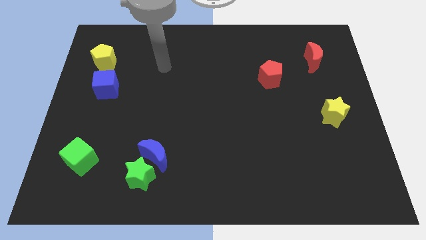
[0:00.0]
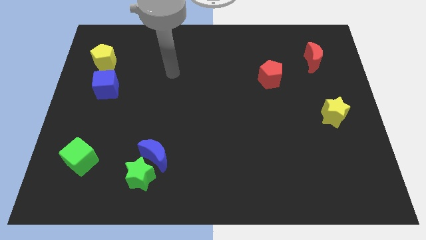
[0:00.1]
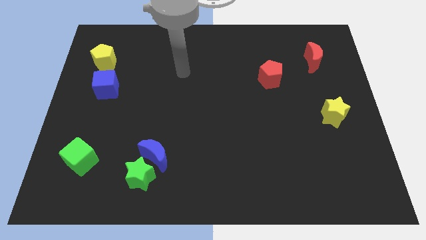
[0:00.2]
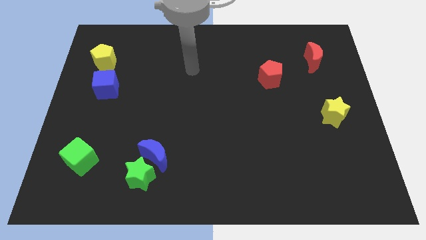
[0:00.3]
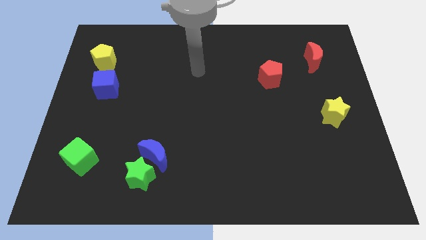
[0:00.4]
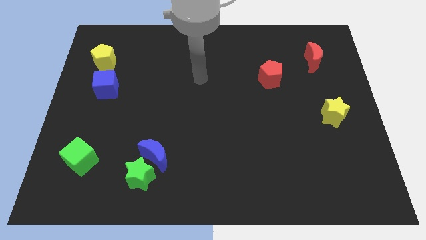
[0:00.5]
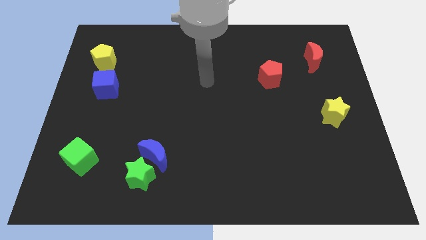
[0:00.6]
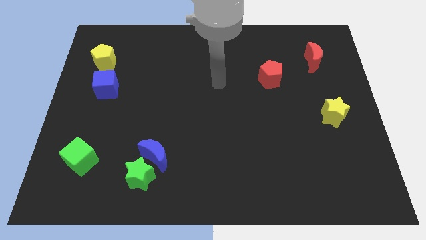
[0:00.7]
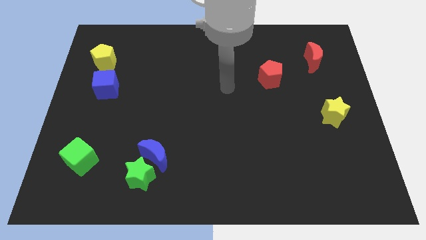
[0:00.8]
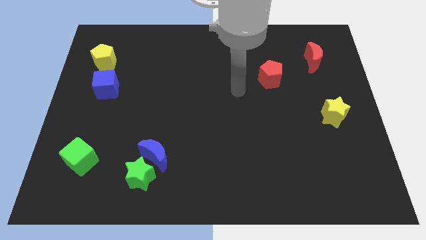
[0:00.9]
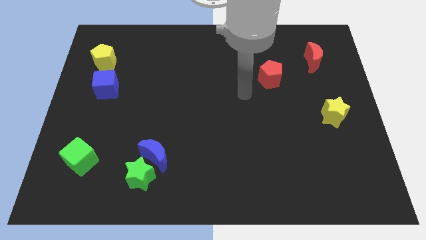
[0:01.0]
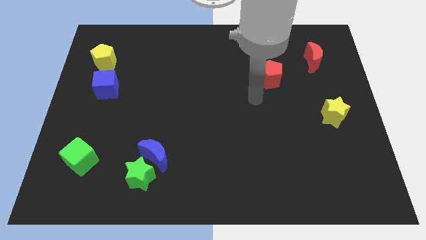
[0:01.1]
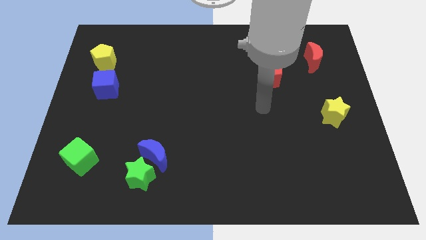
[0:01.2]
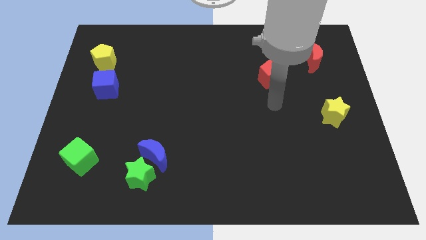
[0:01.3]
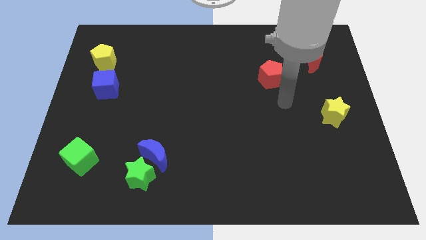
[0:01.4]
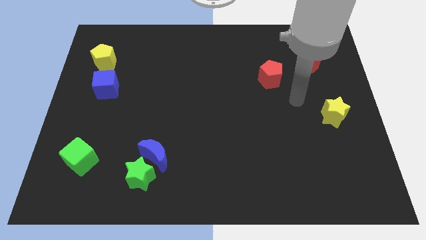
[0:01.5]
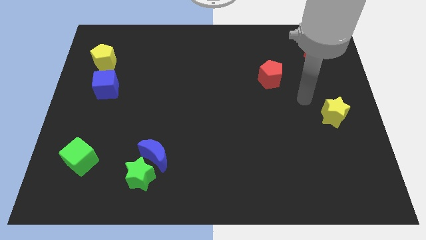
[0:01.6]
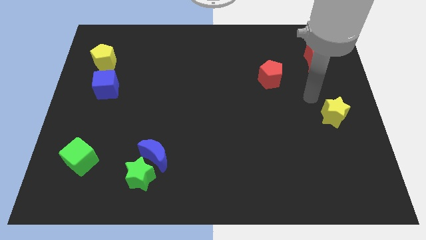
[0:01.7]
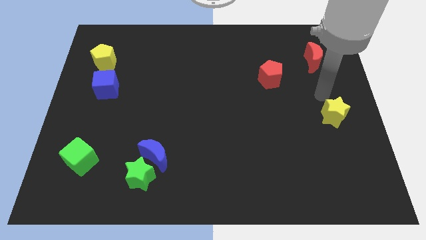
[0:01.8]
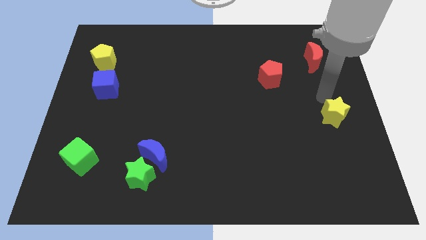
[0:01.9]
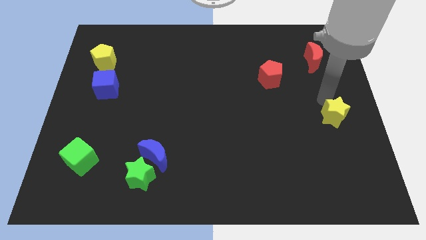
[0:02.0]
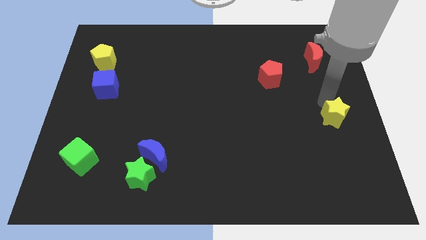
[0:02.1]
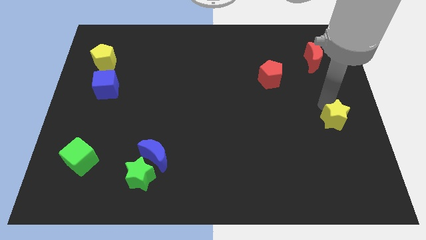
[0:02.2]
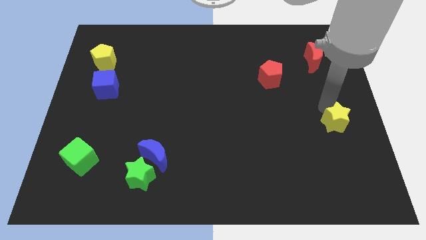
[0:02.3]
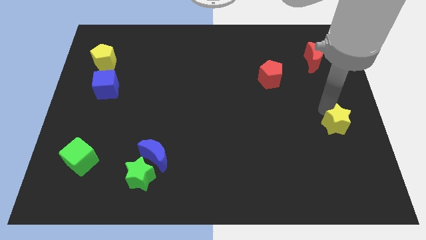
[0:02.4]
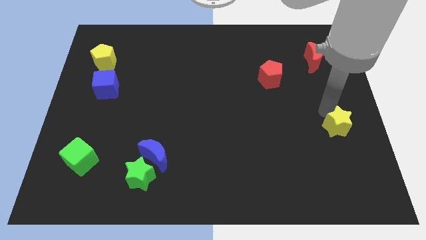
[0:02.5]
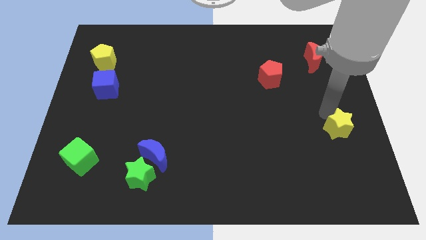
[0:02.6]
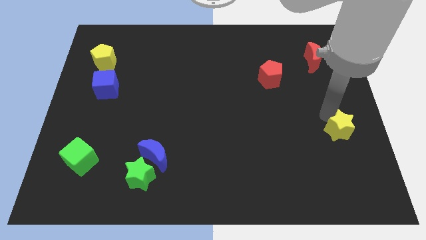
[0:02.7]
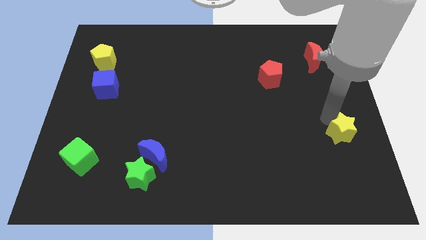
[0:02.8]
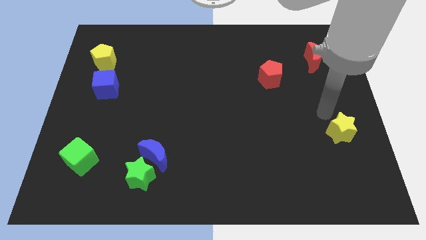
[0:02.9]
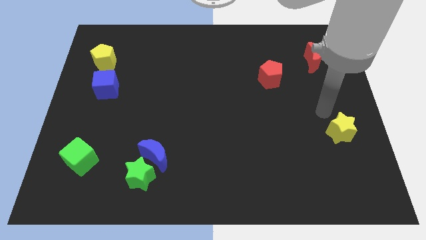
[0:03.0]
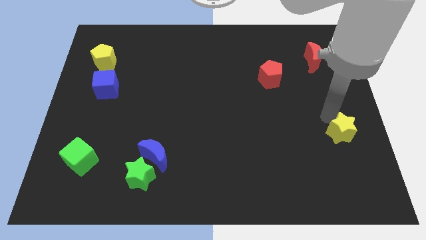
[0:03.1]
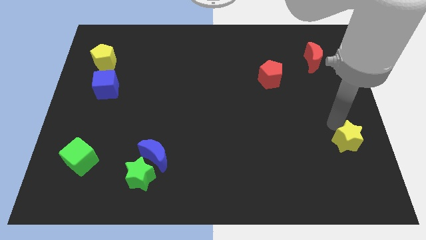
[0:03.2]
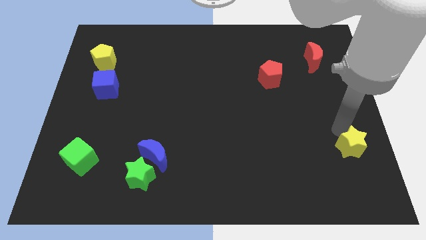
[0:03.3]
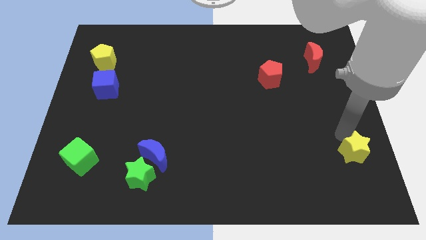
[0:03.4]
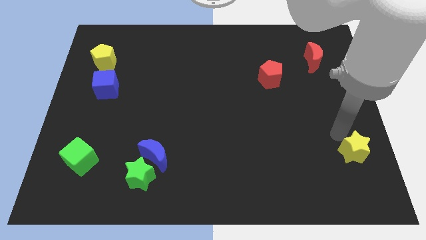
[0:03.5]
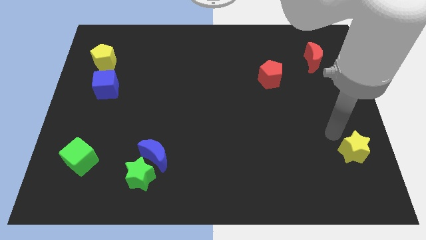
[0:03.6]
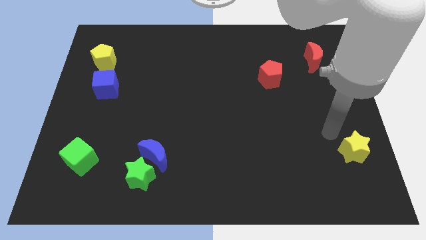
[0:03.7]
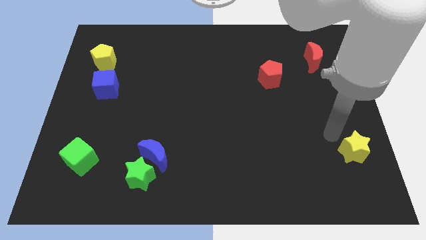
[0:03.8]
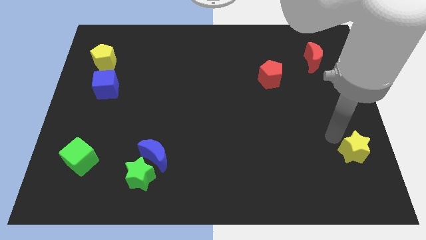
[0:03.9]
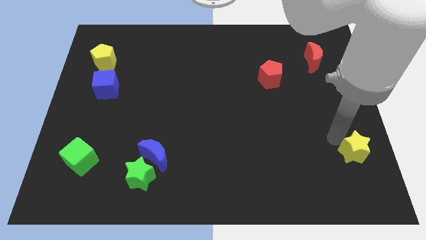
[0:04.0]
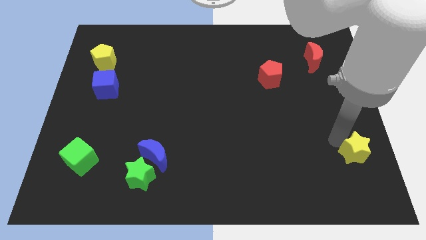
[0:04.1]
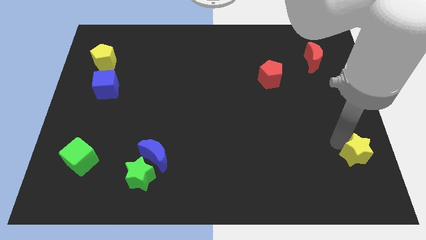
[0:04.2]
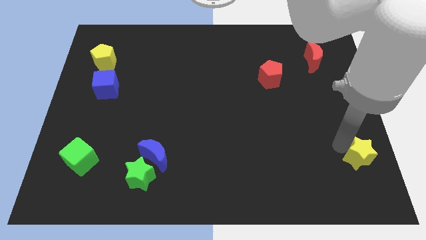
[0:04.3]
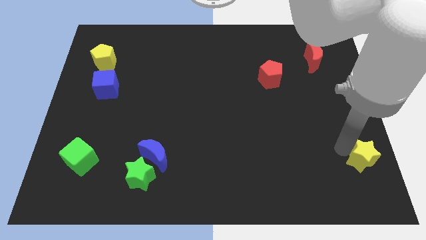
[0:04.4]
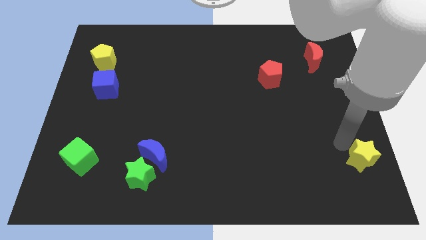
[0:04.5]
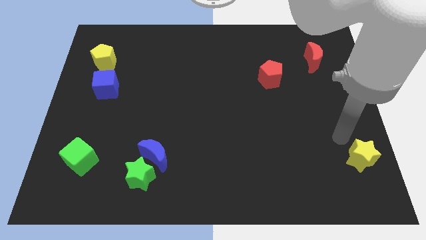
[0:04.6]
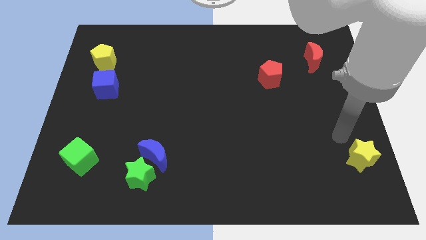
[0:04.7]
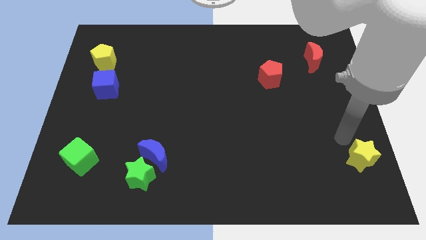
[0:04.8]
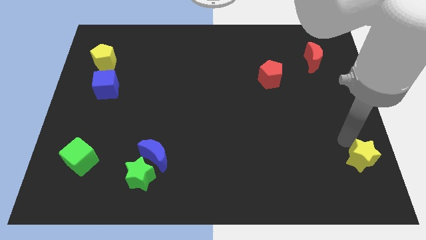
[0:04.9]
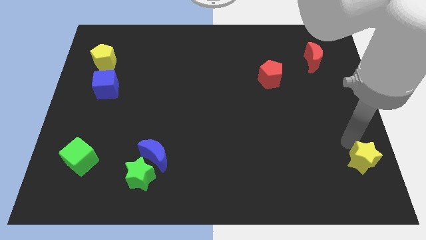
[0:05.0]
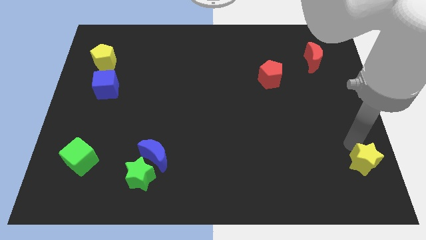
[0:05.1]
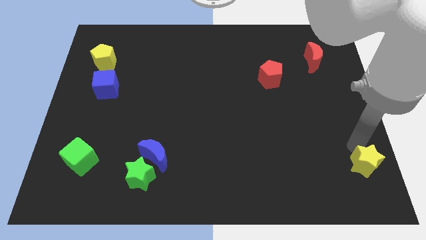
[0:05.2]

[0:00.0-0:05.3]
move the yellow star to the bottom right corner

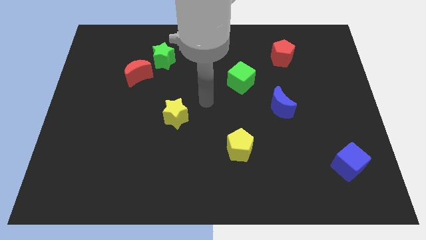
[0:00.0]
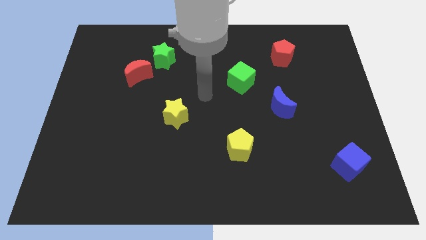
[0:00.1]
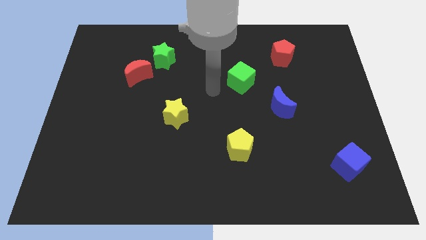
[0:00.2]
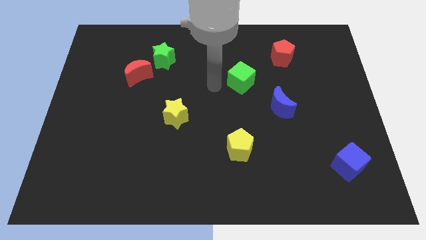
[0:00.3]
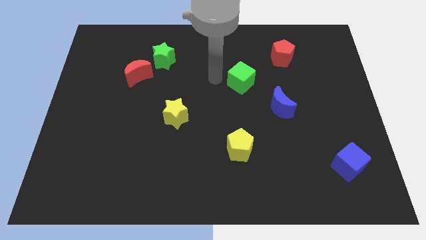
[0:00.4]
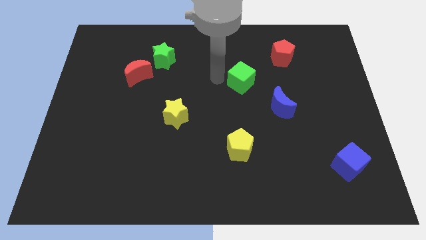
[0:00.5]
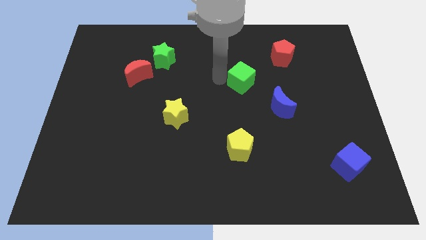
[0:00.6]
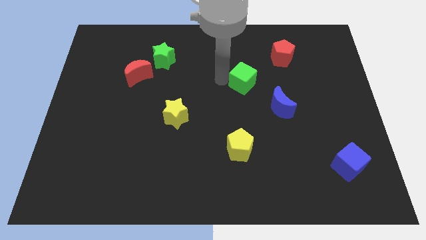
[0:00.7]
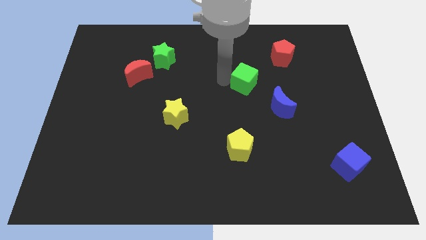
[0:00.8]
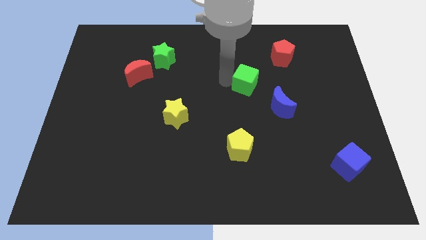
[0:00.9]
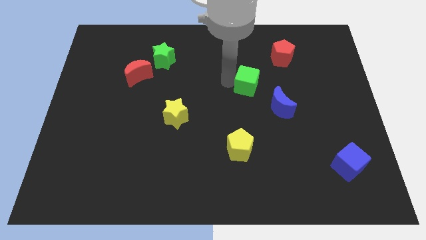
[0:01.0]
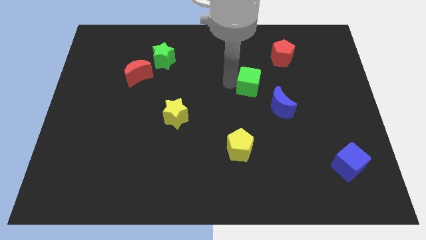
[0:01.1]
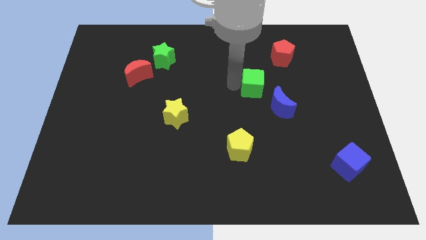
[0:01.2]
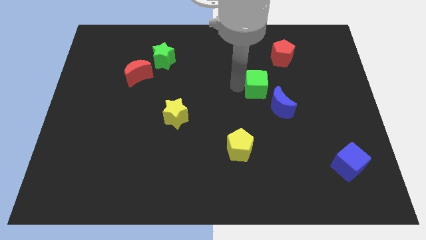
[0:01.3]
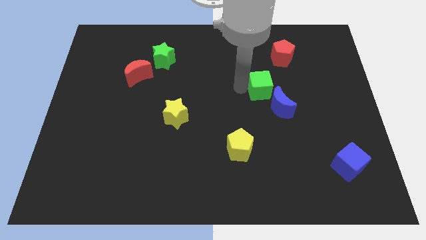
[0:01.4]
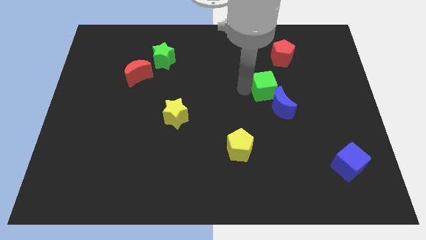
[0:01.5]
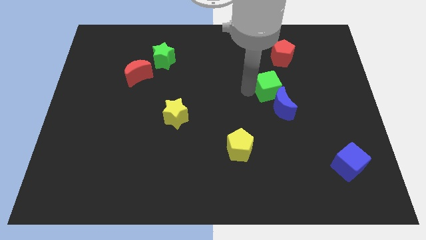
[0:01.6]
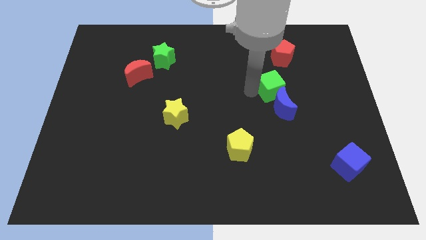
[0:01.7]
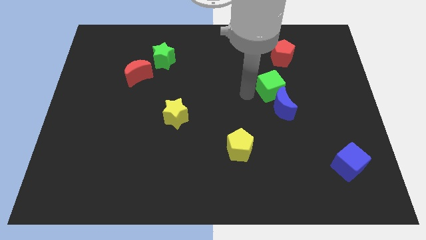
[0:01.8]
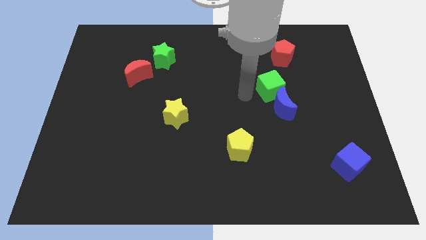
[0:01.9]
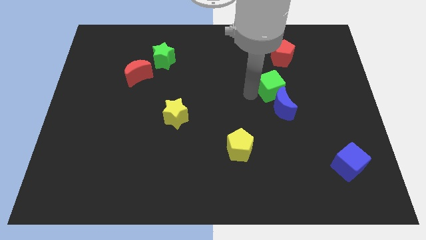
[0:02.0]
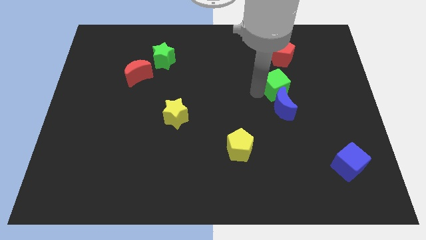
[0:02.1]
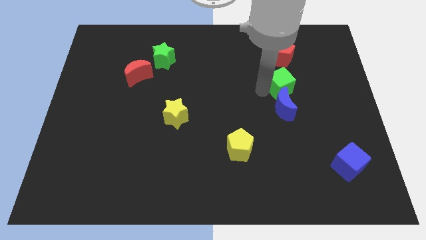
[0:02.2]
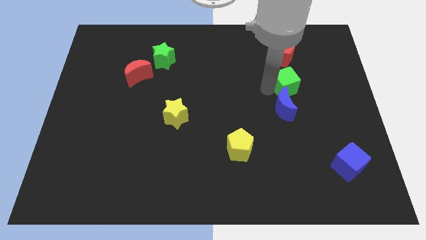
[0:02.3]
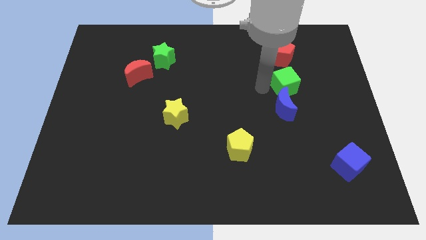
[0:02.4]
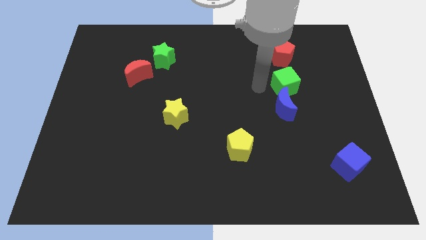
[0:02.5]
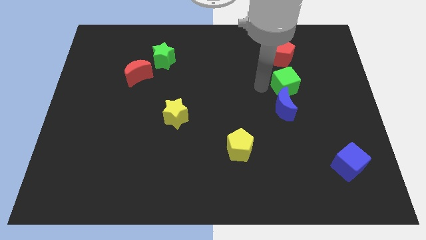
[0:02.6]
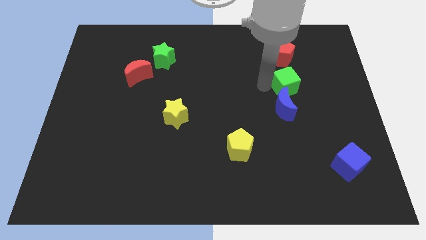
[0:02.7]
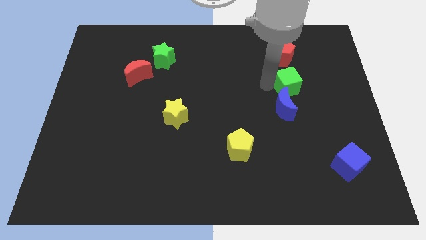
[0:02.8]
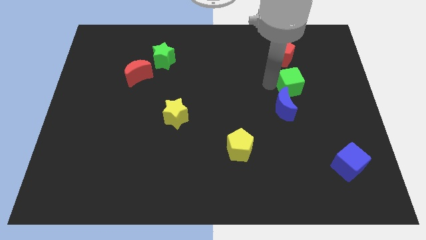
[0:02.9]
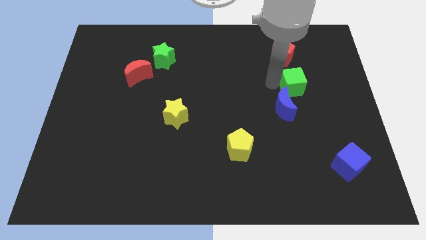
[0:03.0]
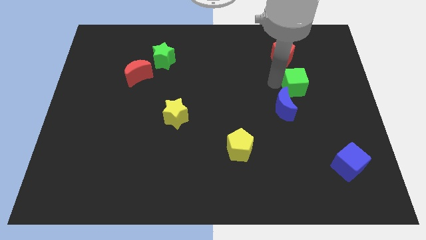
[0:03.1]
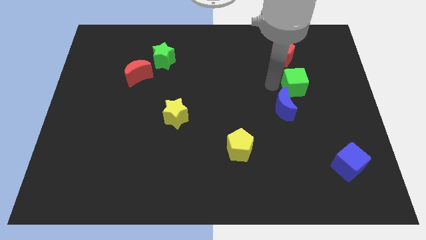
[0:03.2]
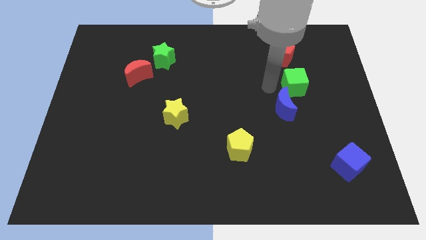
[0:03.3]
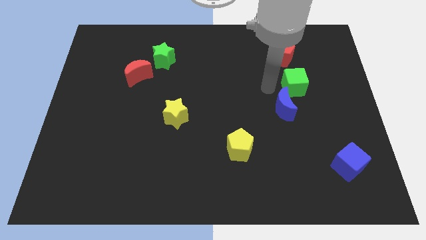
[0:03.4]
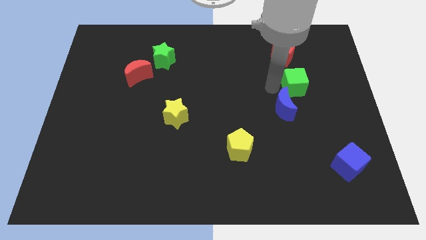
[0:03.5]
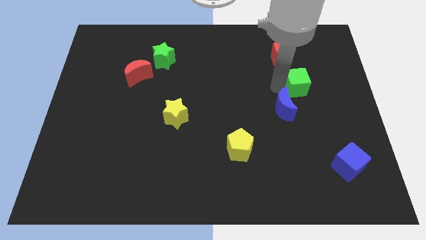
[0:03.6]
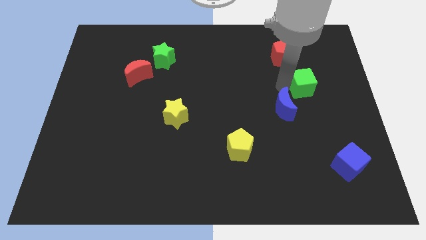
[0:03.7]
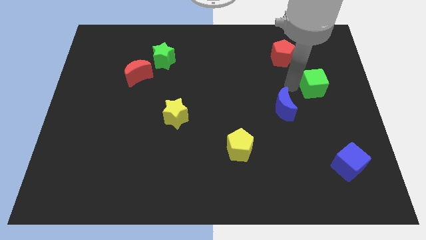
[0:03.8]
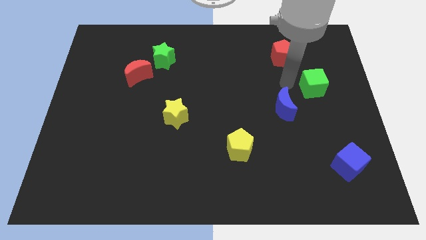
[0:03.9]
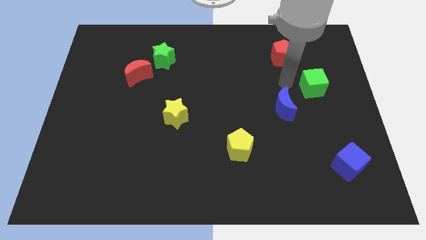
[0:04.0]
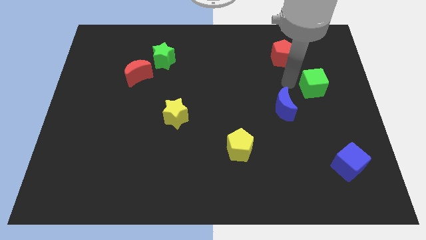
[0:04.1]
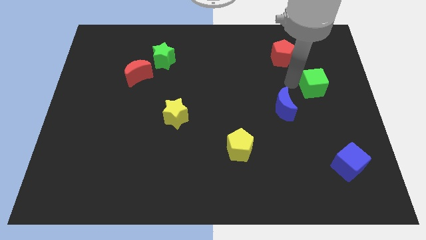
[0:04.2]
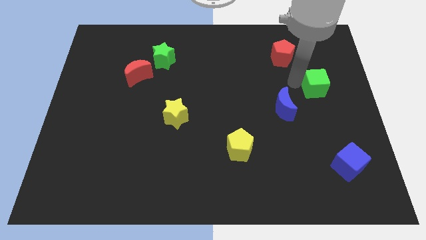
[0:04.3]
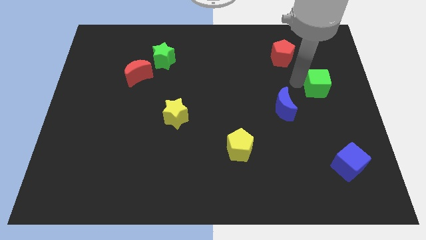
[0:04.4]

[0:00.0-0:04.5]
push the green cube to the right side
